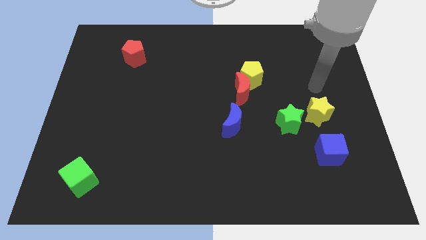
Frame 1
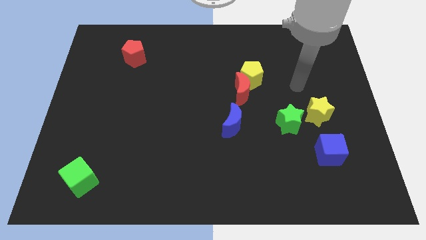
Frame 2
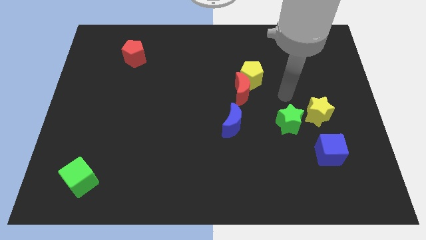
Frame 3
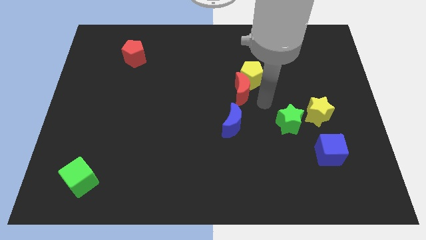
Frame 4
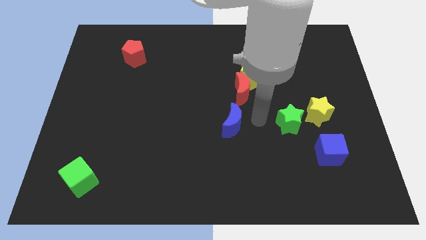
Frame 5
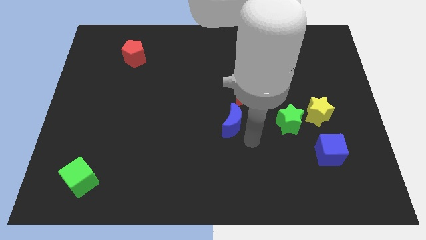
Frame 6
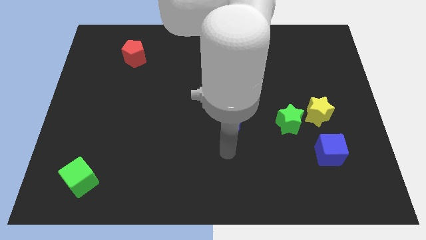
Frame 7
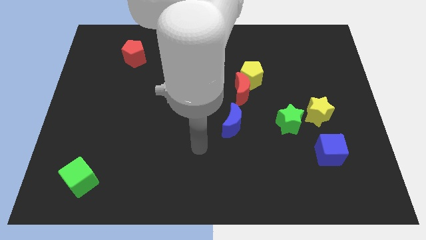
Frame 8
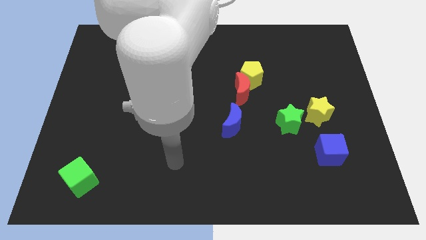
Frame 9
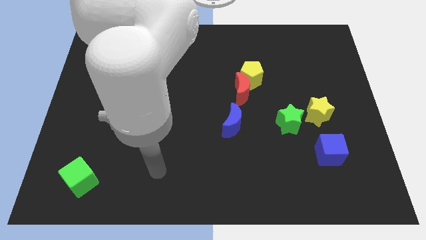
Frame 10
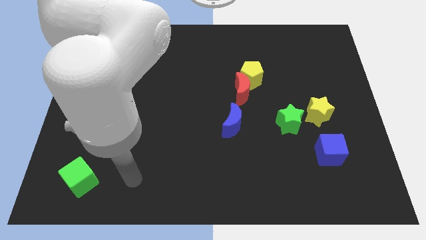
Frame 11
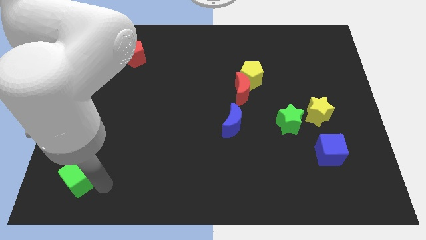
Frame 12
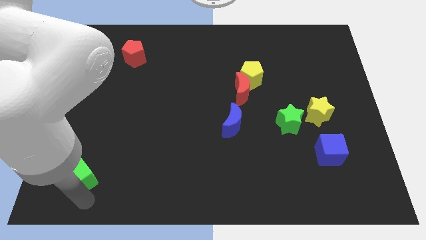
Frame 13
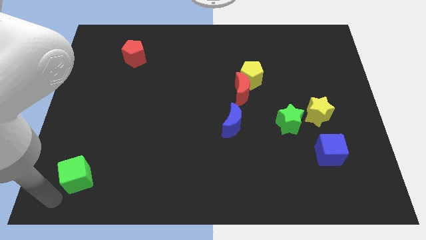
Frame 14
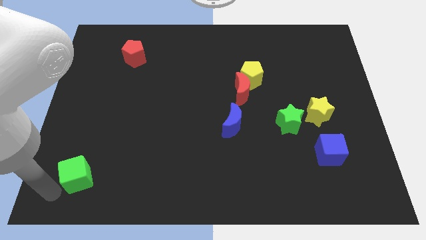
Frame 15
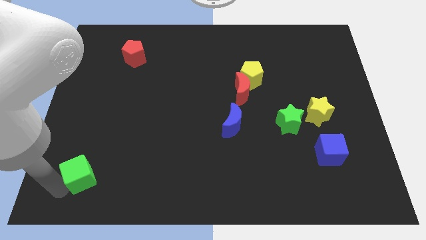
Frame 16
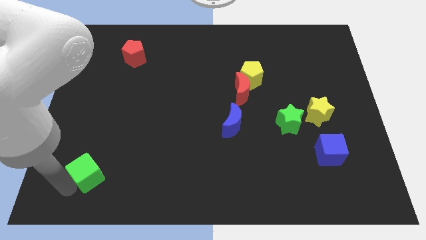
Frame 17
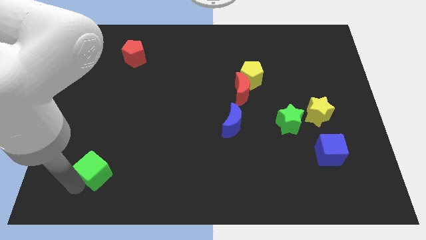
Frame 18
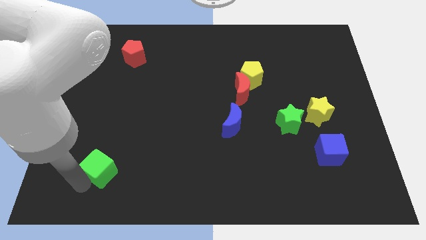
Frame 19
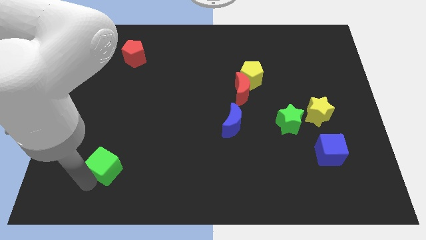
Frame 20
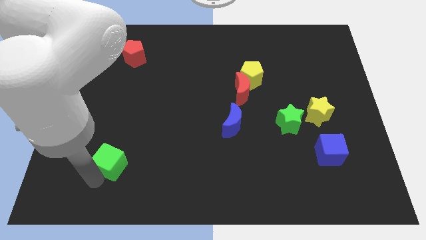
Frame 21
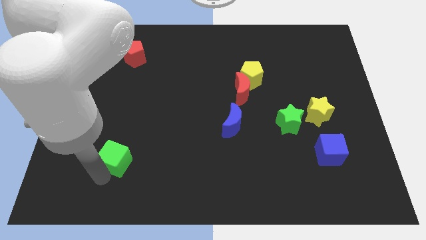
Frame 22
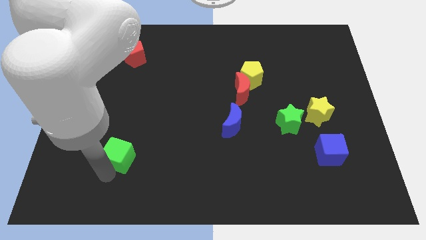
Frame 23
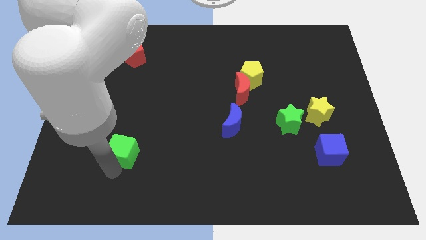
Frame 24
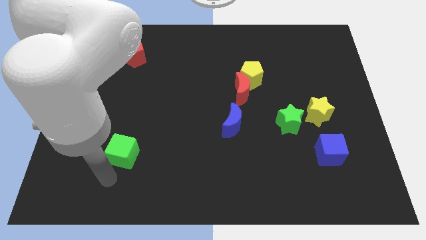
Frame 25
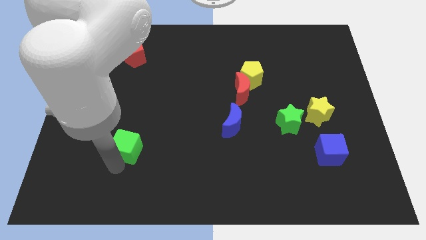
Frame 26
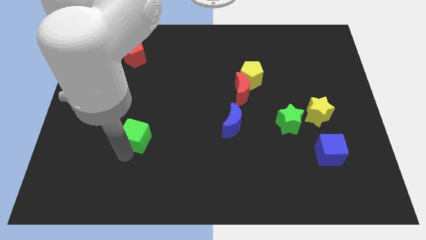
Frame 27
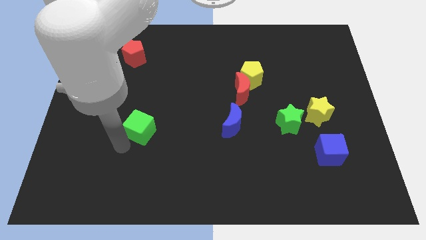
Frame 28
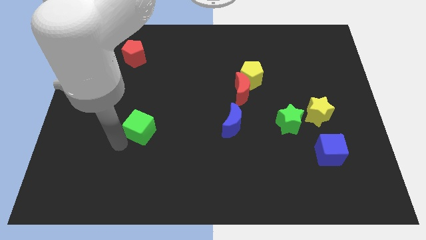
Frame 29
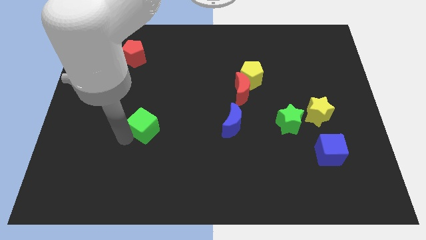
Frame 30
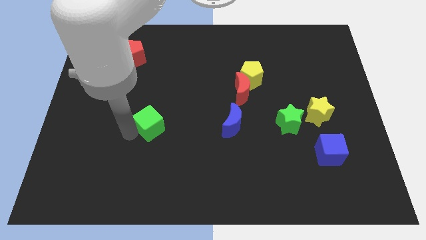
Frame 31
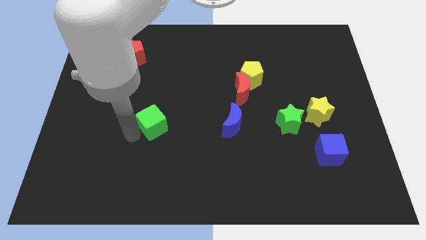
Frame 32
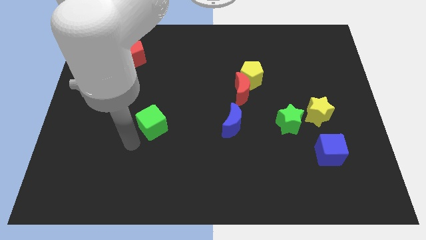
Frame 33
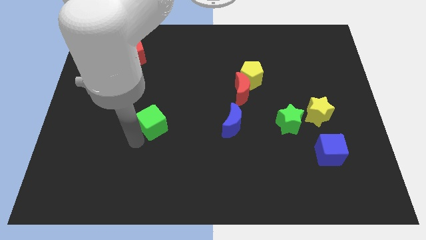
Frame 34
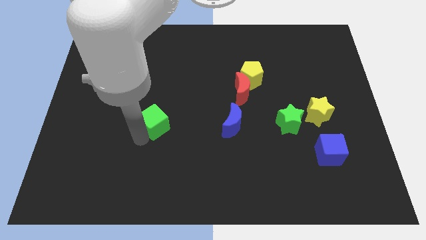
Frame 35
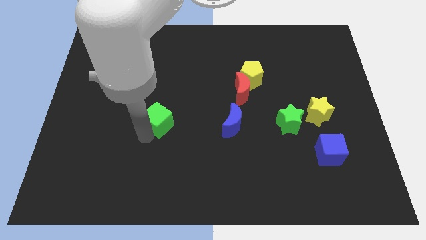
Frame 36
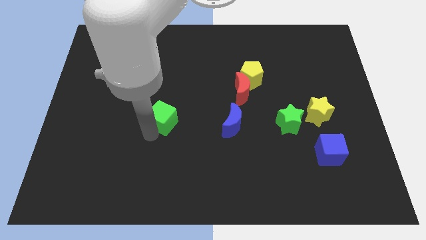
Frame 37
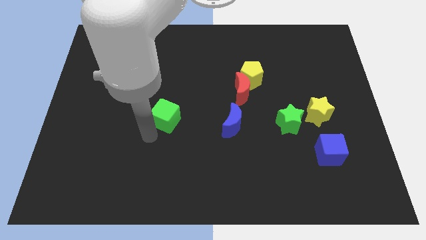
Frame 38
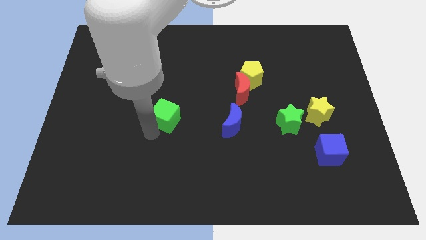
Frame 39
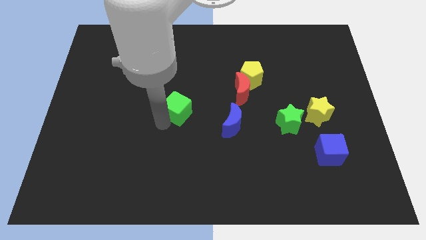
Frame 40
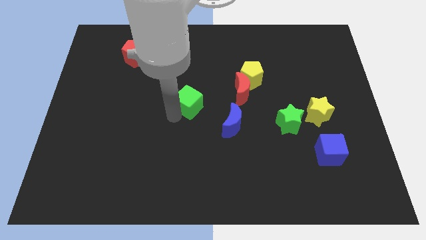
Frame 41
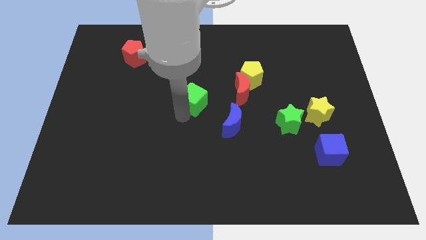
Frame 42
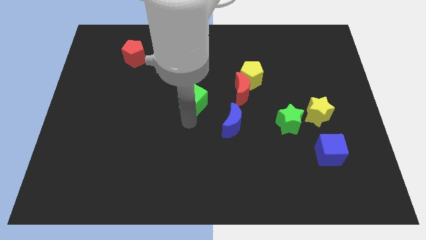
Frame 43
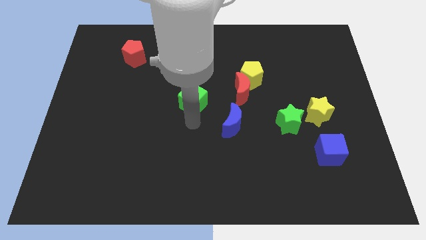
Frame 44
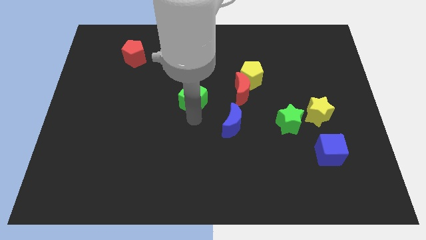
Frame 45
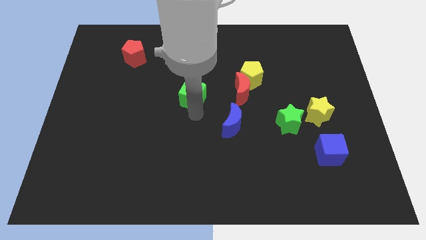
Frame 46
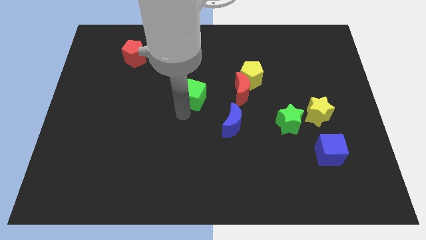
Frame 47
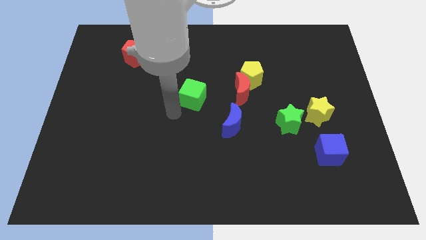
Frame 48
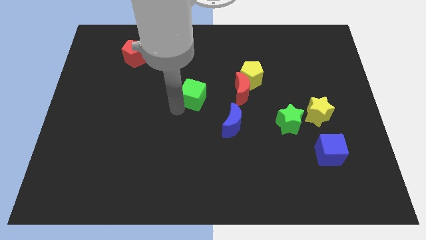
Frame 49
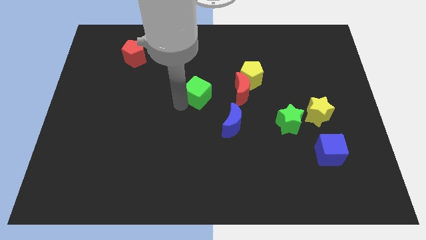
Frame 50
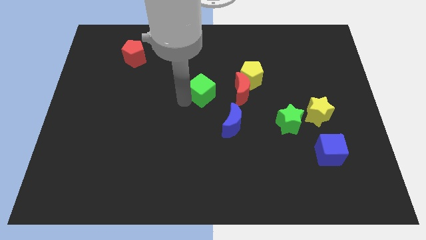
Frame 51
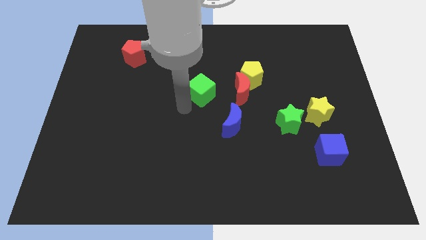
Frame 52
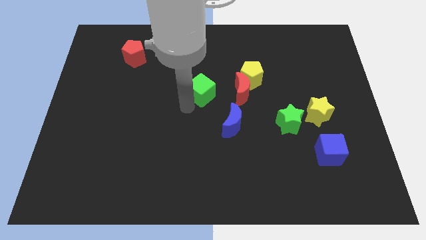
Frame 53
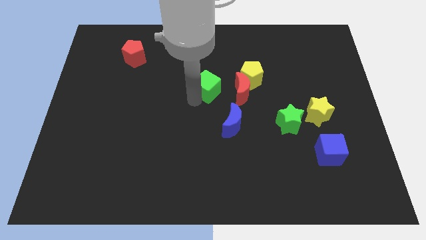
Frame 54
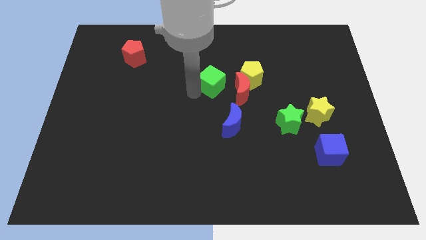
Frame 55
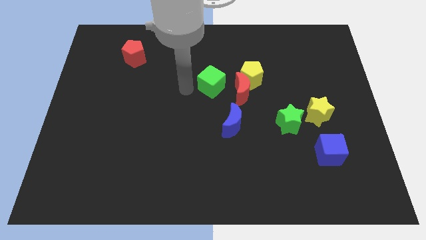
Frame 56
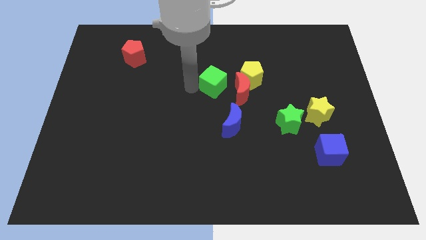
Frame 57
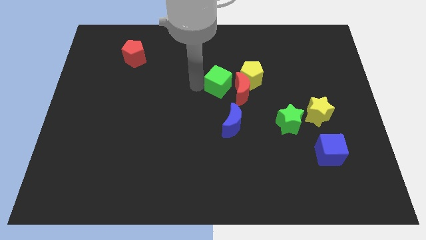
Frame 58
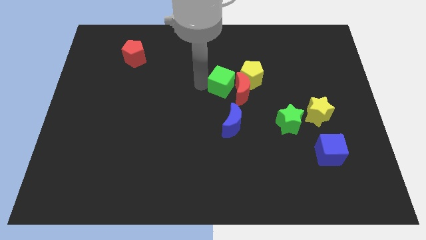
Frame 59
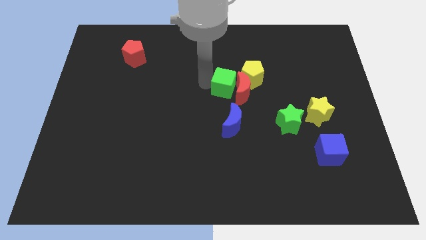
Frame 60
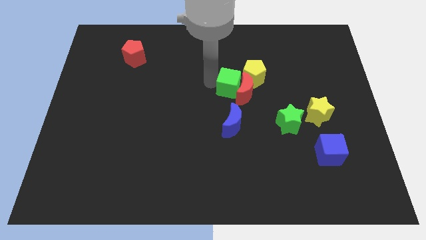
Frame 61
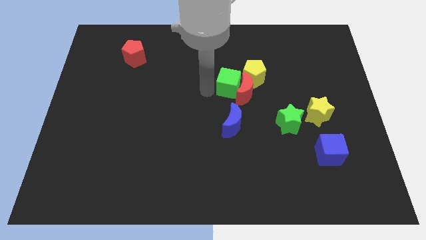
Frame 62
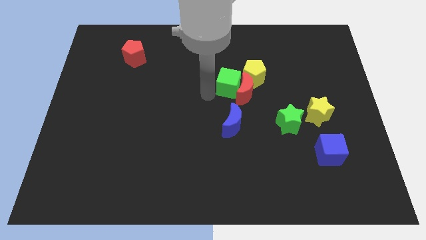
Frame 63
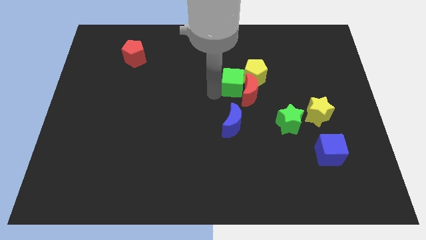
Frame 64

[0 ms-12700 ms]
put the green cube close to the yellow pentagon

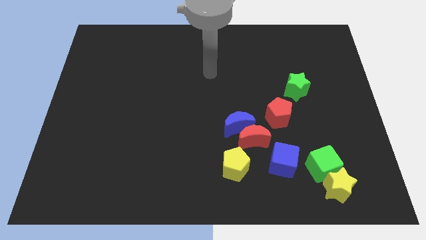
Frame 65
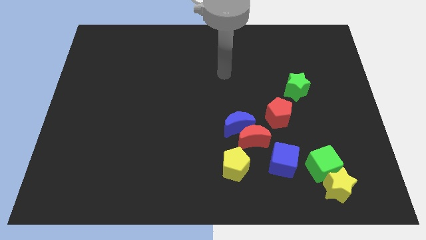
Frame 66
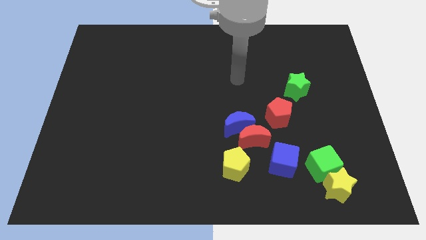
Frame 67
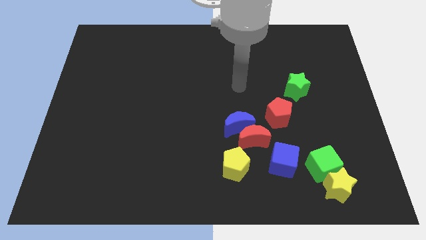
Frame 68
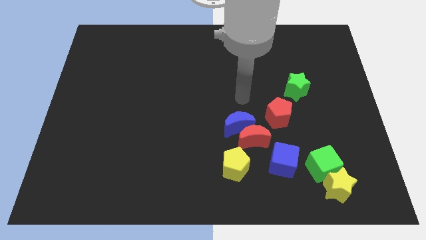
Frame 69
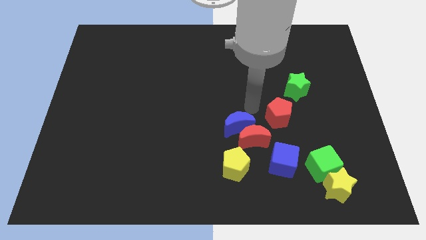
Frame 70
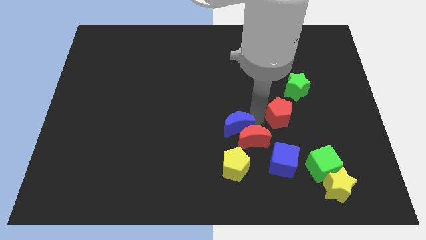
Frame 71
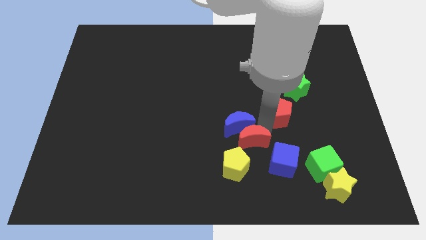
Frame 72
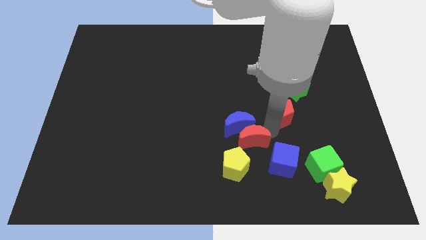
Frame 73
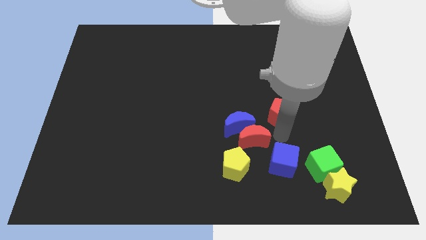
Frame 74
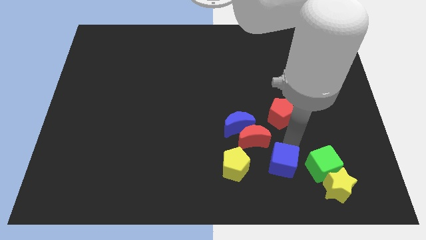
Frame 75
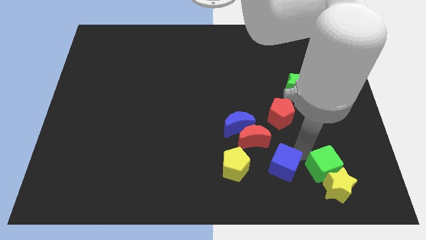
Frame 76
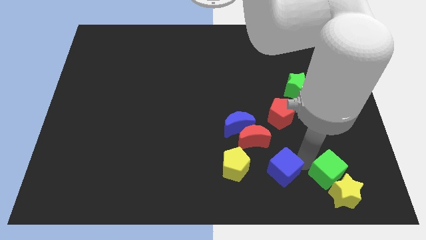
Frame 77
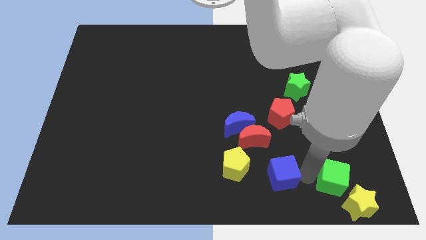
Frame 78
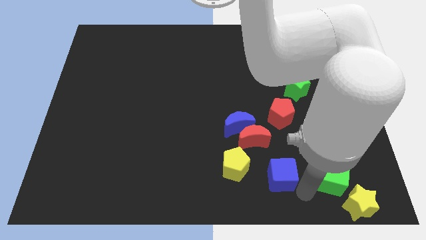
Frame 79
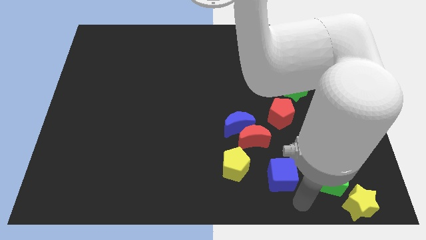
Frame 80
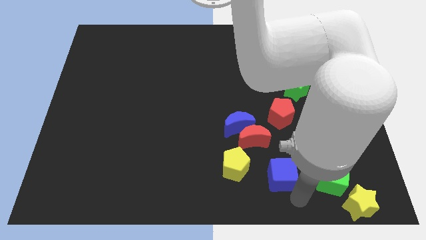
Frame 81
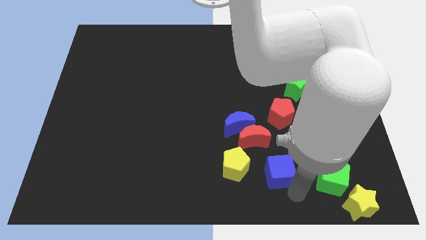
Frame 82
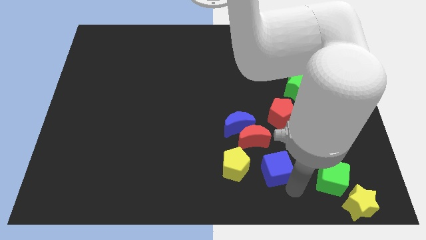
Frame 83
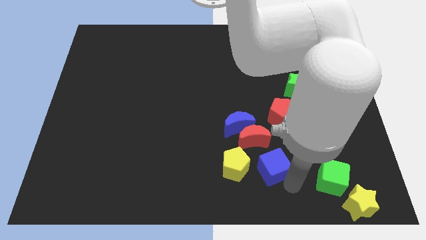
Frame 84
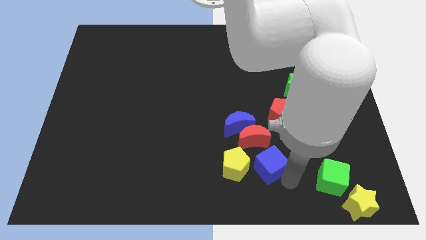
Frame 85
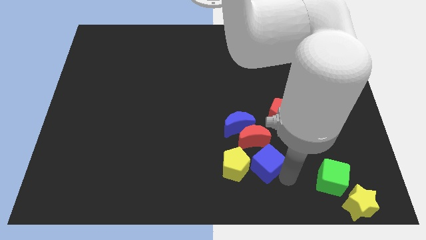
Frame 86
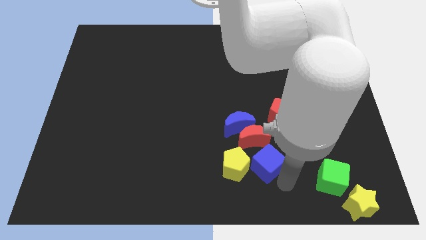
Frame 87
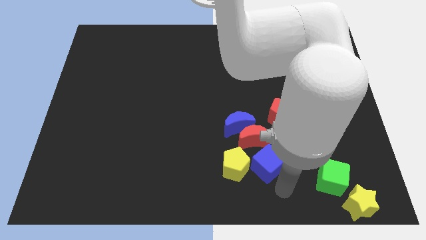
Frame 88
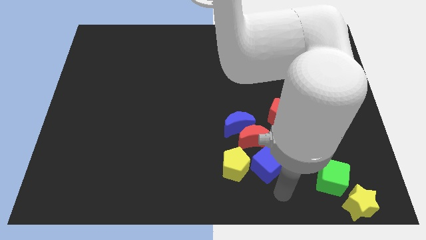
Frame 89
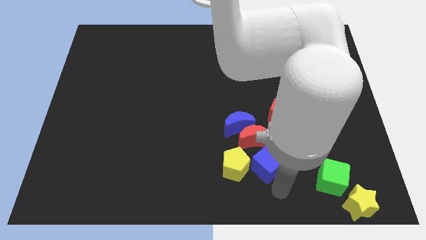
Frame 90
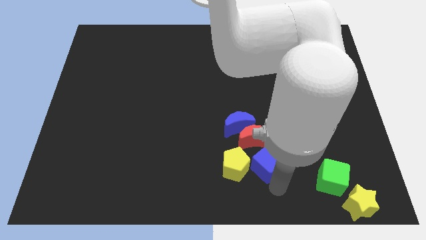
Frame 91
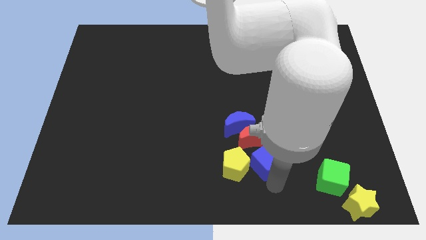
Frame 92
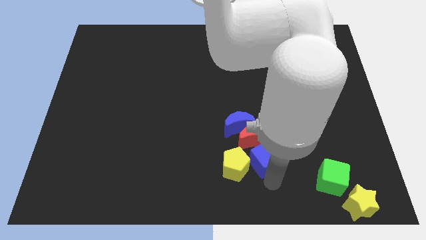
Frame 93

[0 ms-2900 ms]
slide the blue cube close to the red moon
